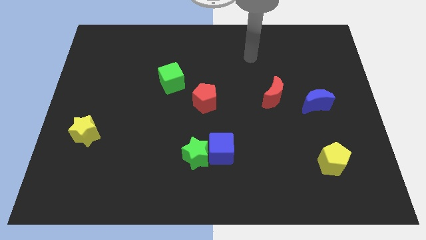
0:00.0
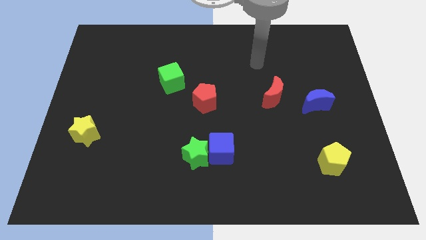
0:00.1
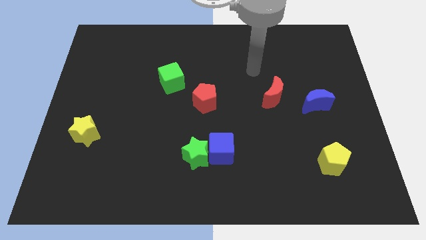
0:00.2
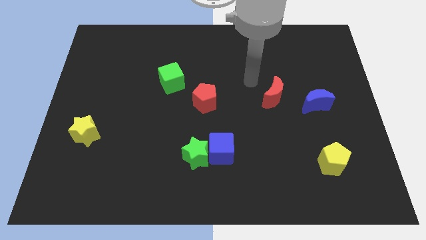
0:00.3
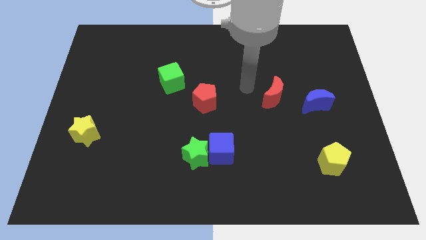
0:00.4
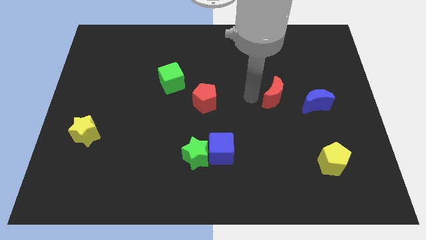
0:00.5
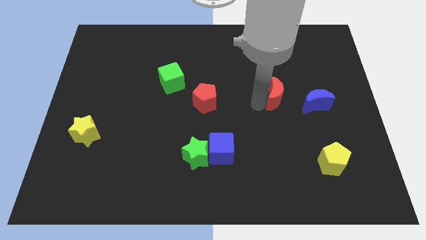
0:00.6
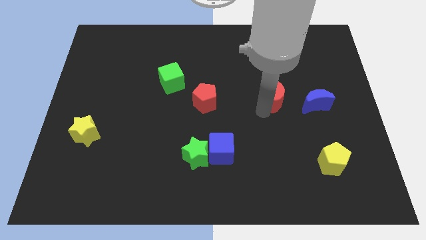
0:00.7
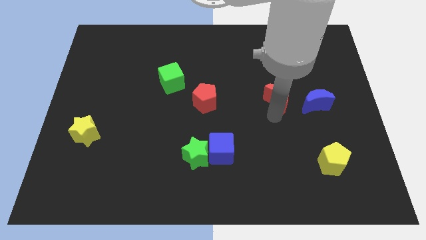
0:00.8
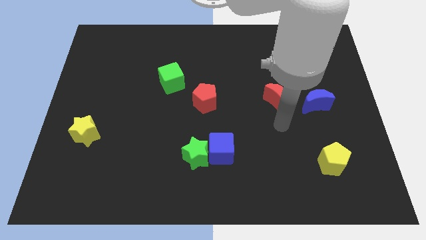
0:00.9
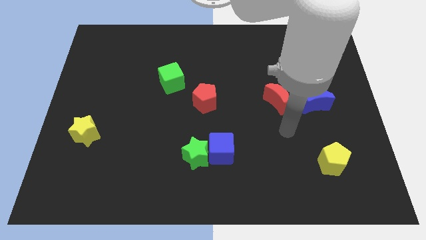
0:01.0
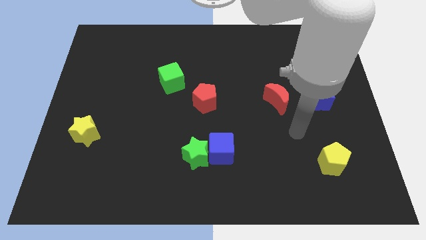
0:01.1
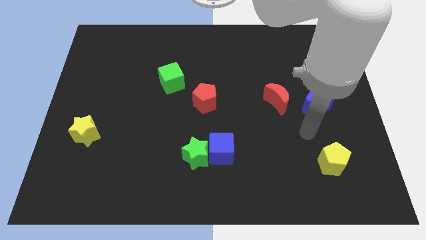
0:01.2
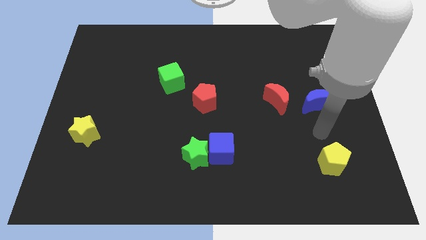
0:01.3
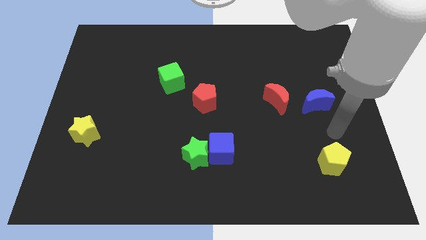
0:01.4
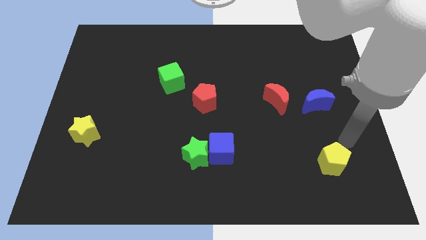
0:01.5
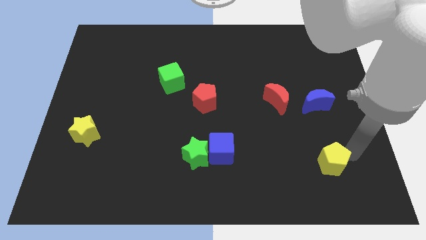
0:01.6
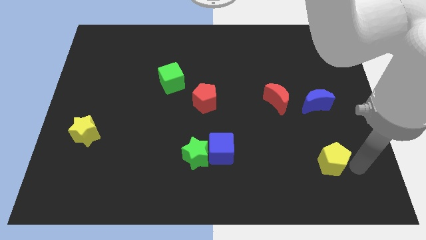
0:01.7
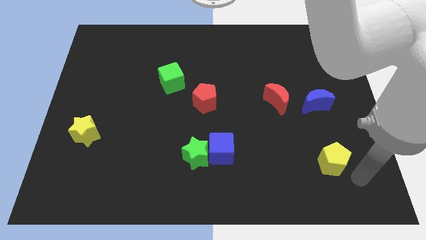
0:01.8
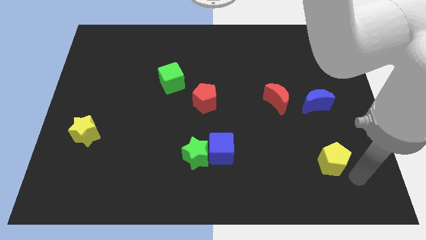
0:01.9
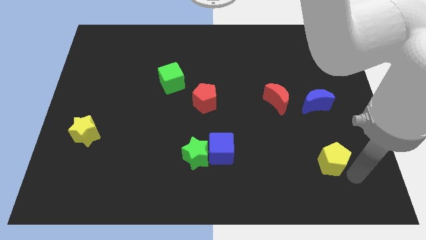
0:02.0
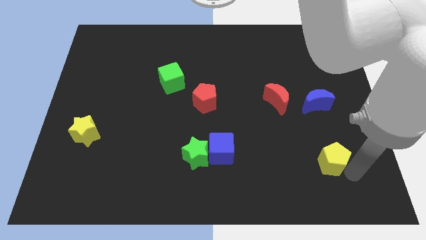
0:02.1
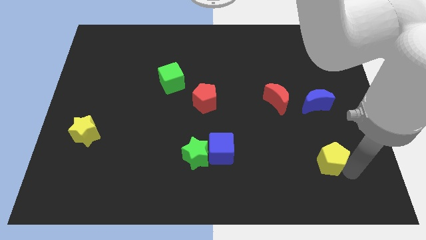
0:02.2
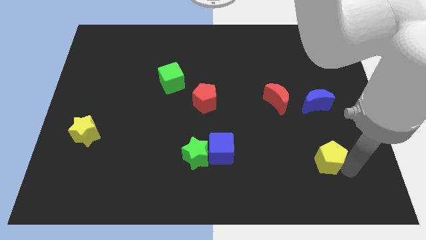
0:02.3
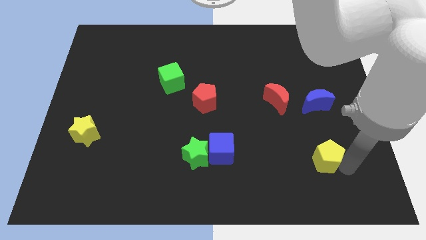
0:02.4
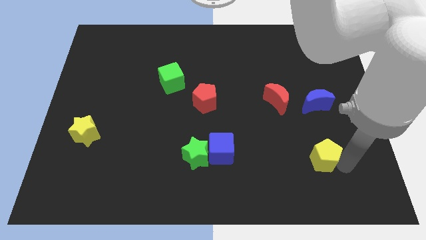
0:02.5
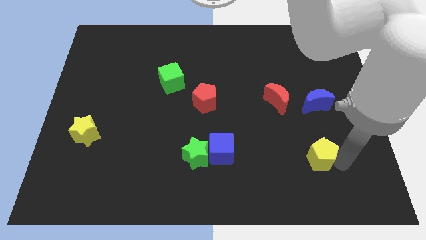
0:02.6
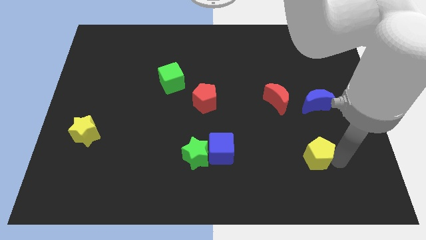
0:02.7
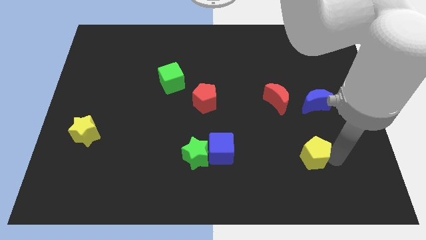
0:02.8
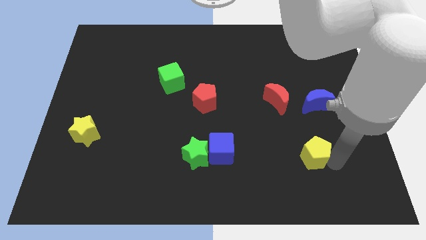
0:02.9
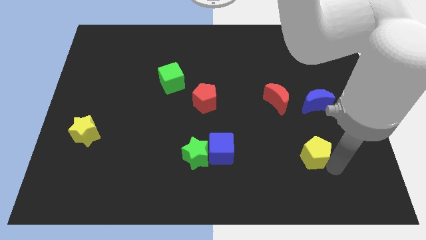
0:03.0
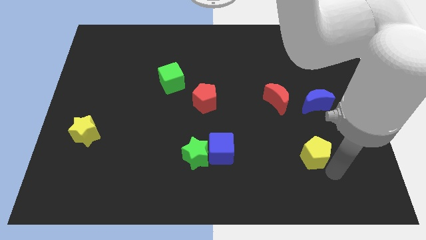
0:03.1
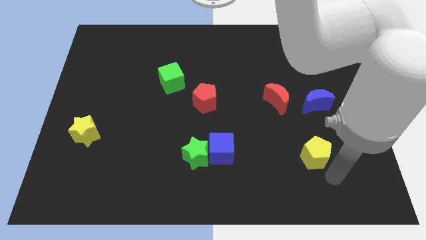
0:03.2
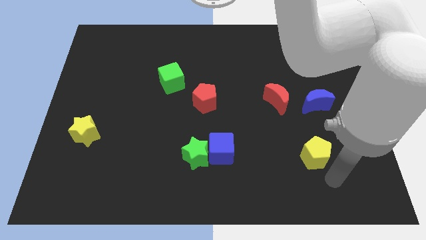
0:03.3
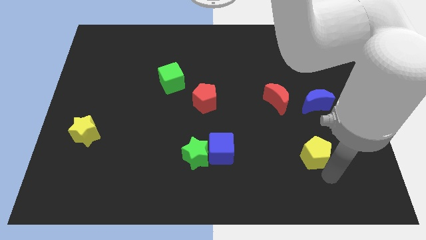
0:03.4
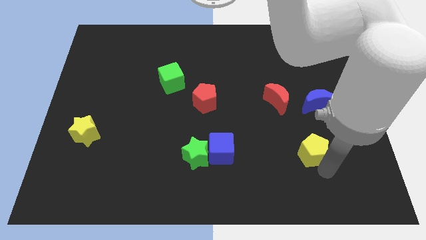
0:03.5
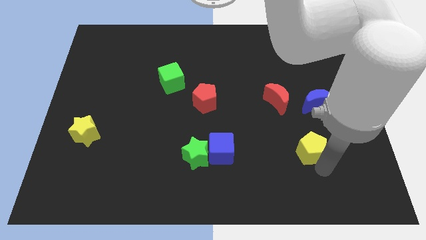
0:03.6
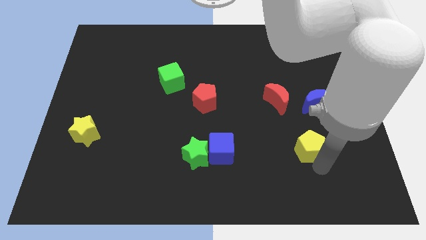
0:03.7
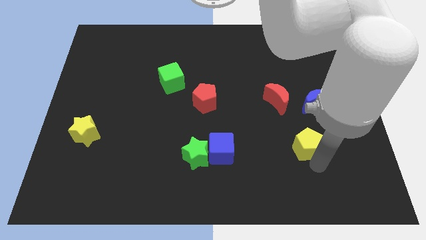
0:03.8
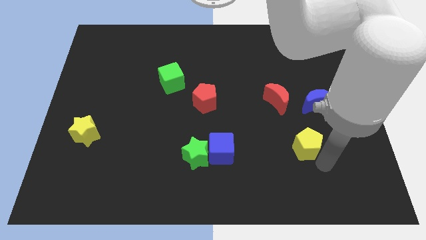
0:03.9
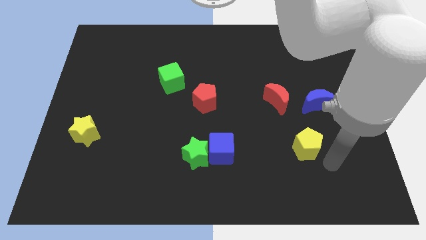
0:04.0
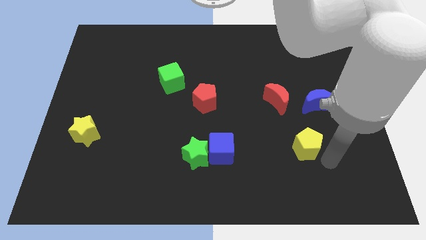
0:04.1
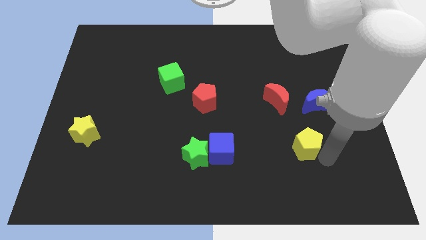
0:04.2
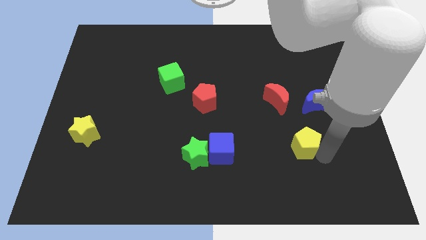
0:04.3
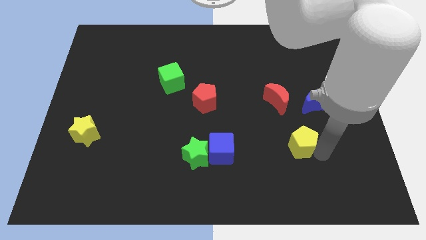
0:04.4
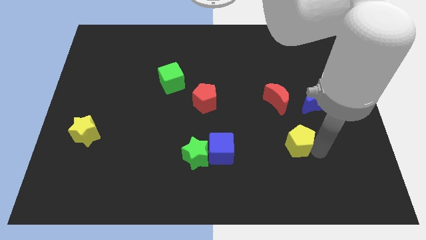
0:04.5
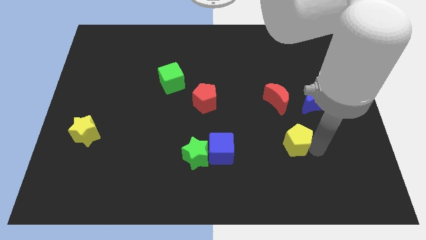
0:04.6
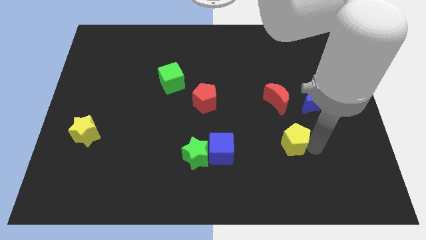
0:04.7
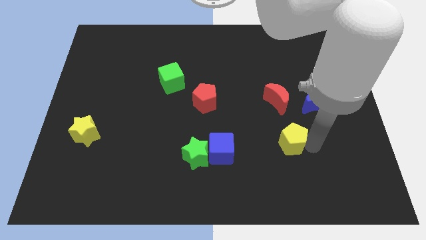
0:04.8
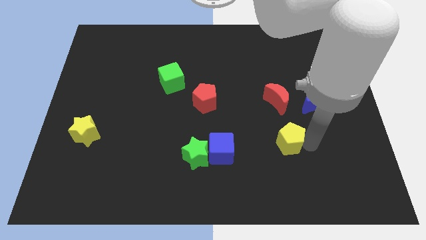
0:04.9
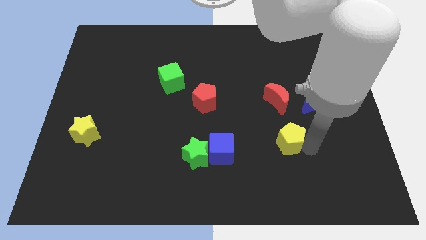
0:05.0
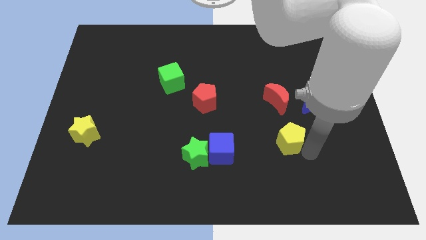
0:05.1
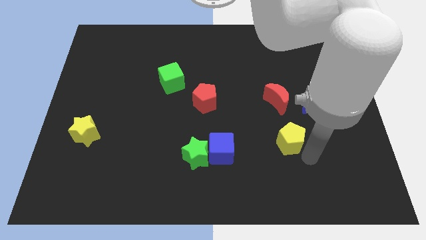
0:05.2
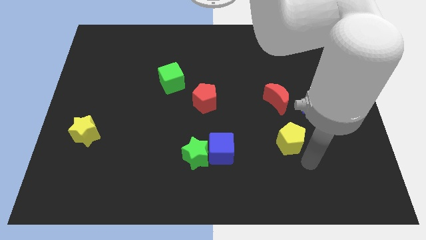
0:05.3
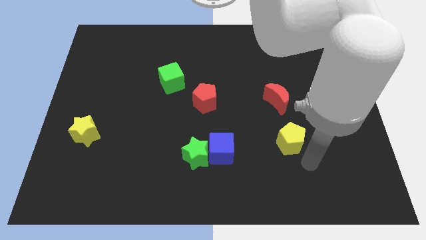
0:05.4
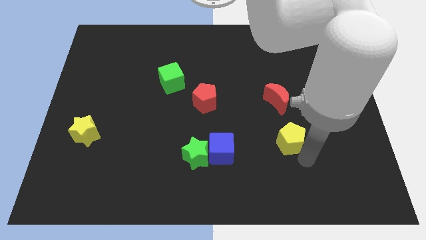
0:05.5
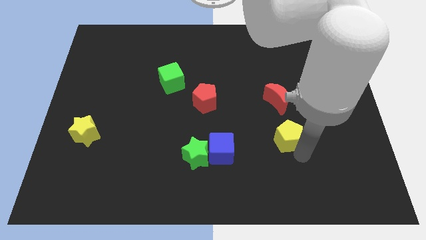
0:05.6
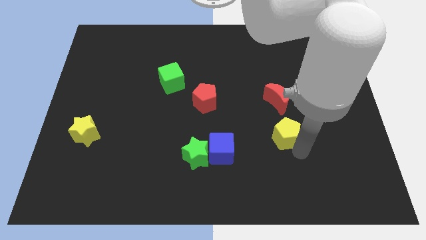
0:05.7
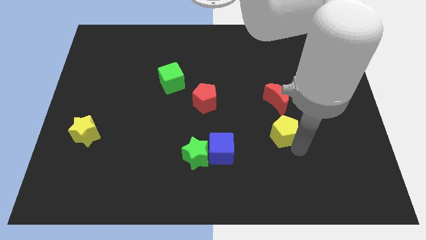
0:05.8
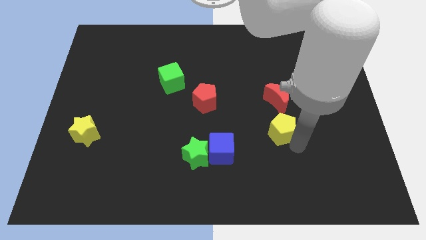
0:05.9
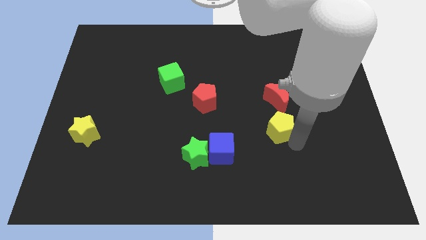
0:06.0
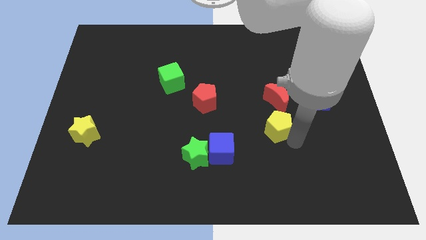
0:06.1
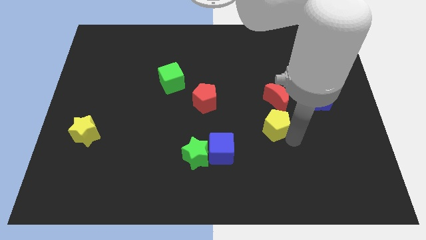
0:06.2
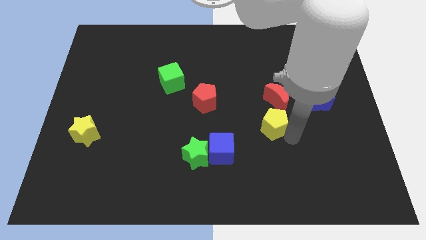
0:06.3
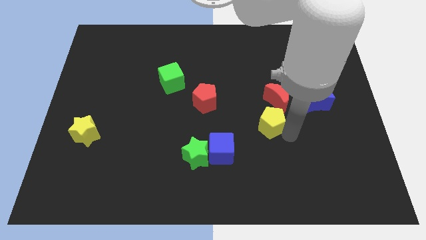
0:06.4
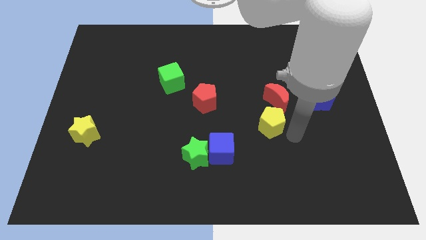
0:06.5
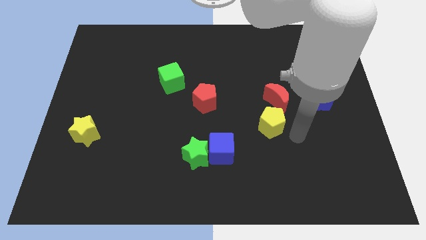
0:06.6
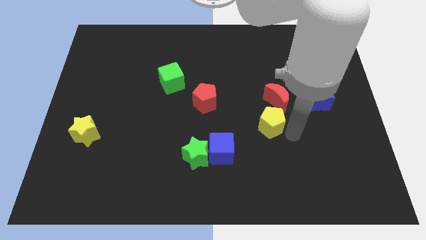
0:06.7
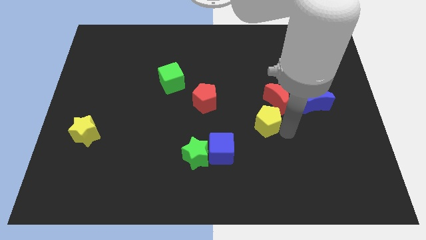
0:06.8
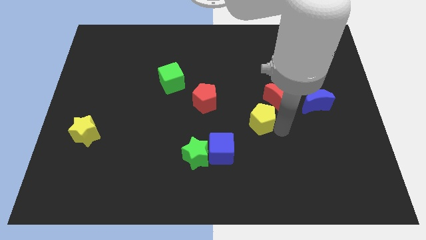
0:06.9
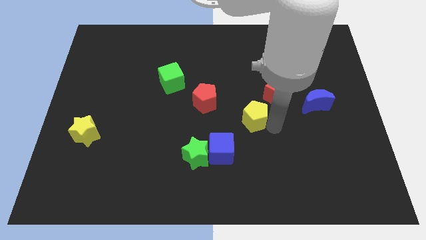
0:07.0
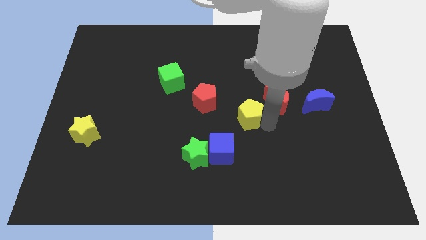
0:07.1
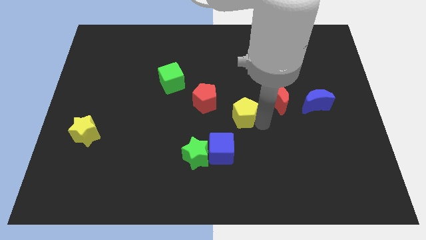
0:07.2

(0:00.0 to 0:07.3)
push the yellow pentagon up and to the left

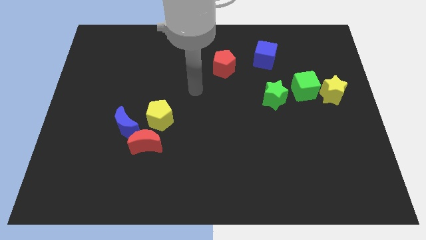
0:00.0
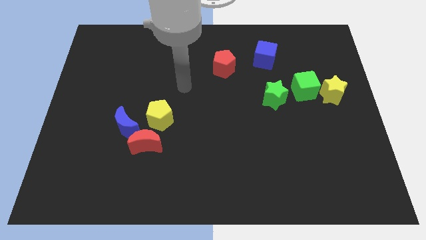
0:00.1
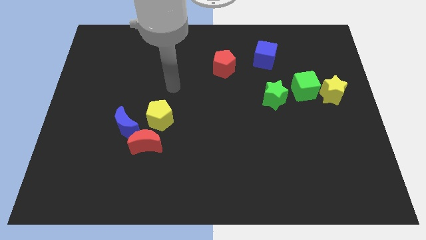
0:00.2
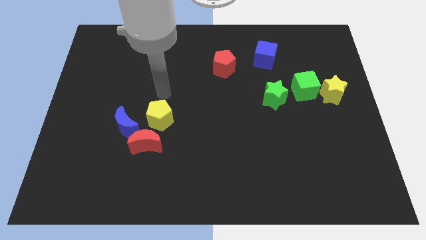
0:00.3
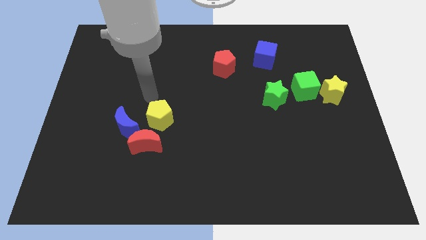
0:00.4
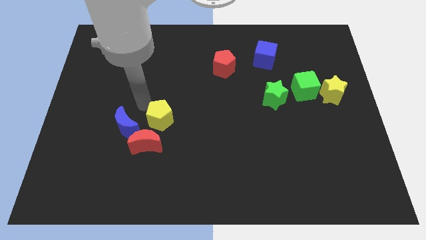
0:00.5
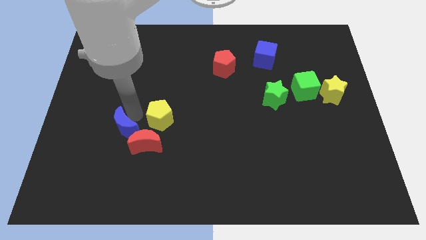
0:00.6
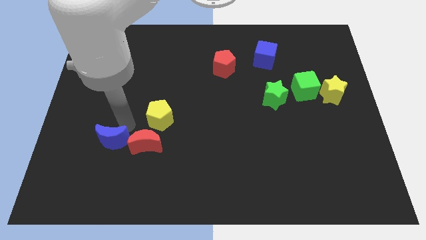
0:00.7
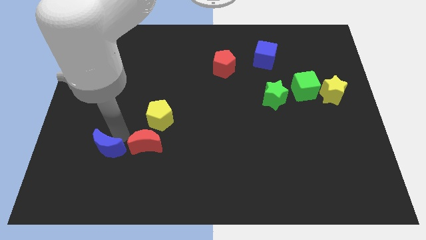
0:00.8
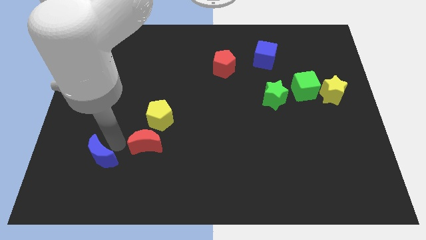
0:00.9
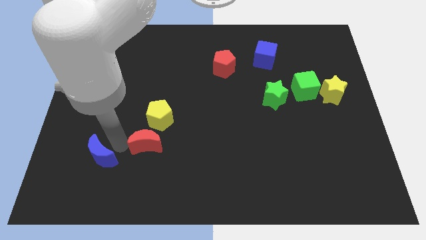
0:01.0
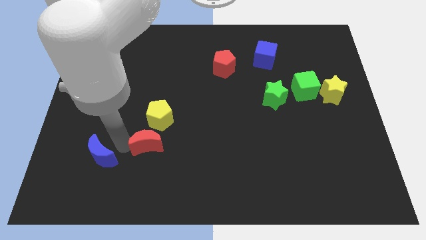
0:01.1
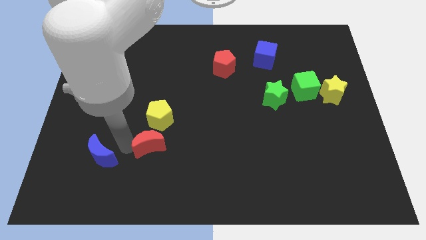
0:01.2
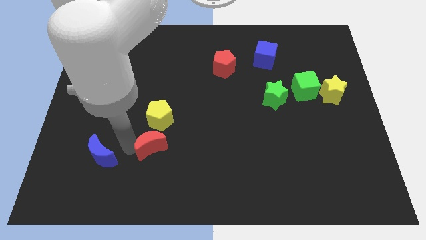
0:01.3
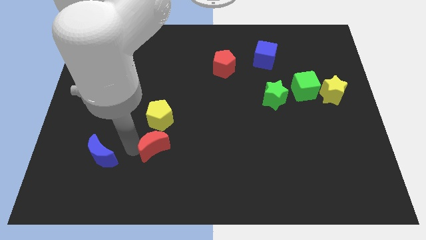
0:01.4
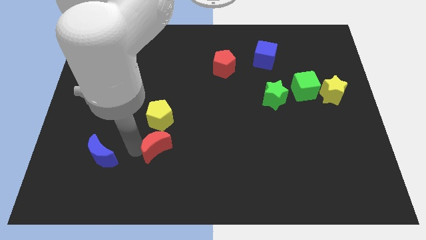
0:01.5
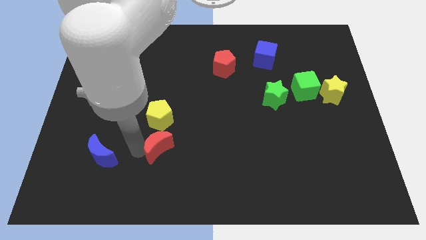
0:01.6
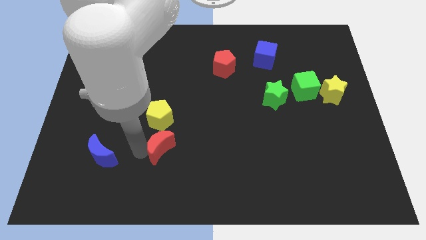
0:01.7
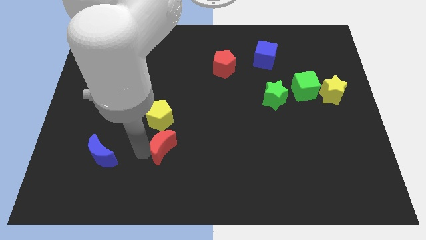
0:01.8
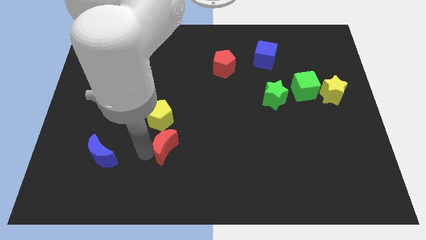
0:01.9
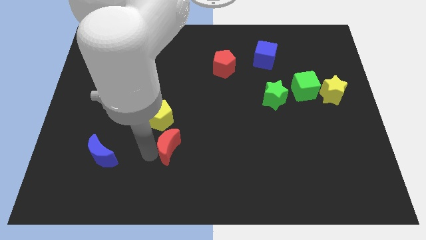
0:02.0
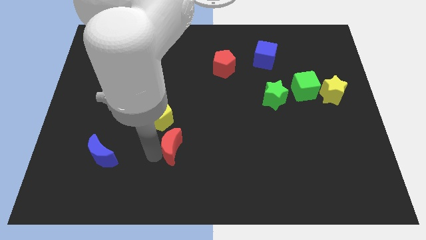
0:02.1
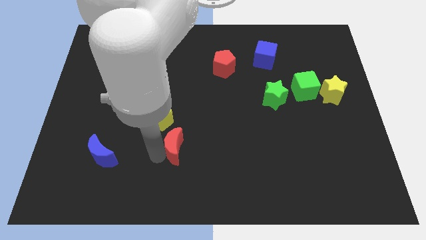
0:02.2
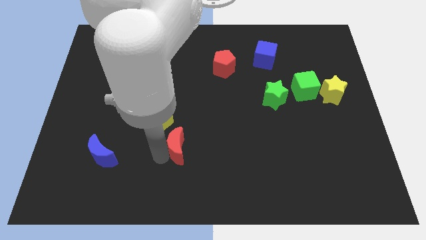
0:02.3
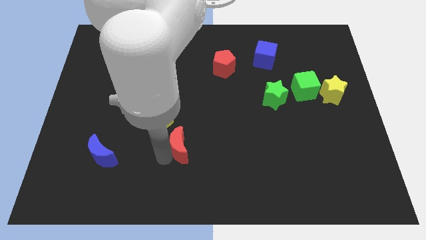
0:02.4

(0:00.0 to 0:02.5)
slightly push the red moon right
